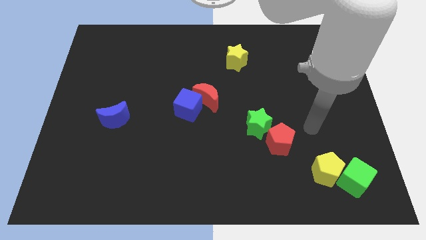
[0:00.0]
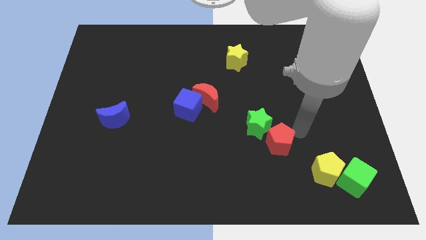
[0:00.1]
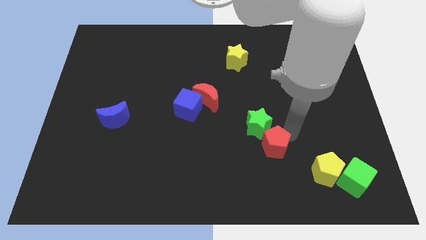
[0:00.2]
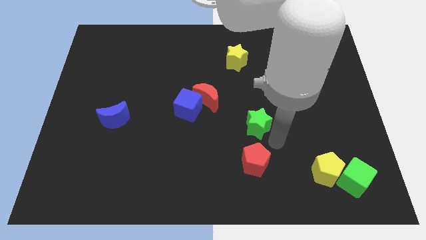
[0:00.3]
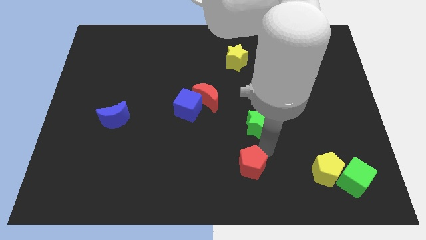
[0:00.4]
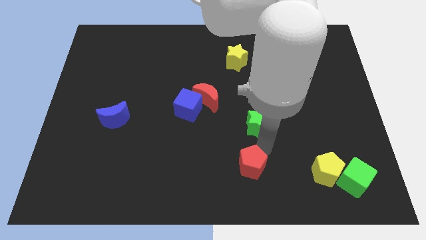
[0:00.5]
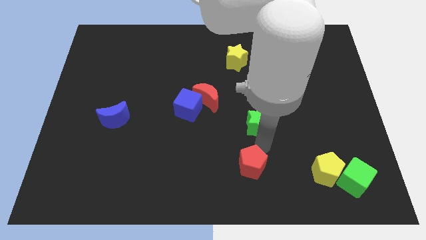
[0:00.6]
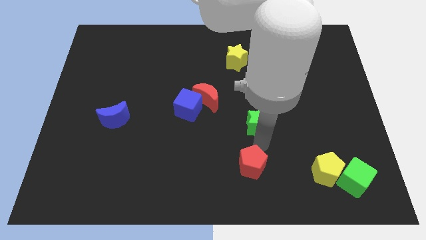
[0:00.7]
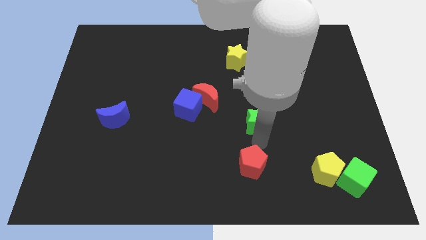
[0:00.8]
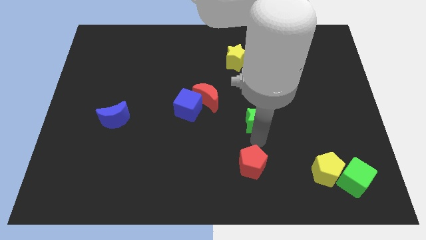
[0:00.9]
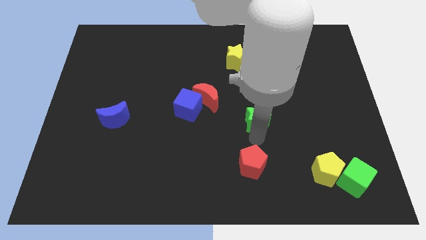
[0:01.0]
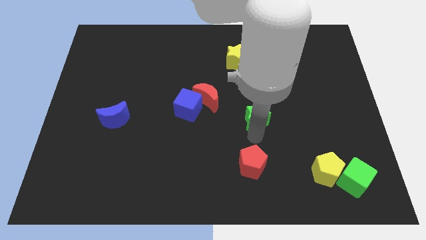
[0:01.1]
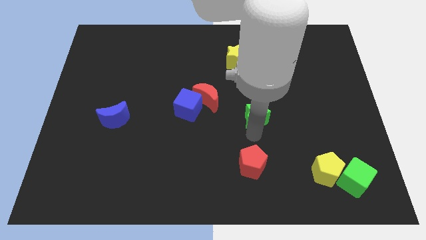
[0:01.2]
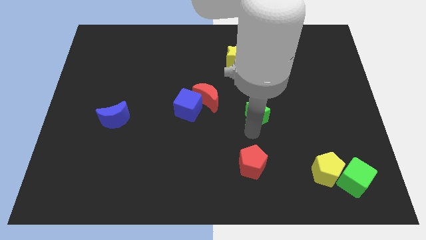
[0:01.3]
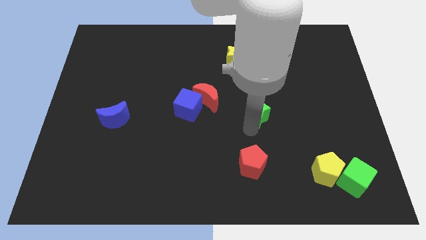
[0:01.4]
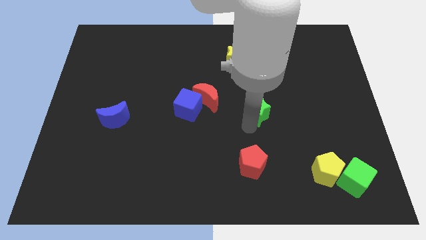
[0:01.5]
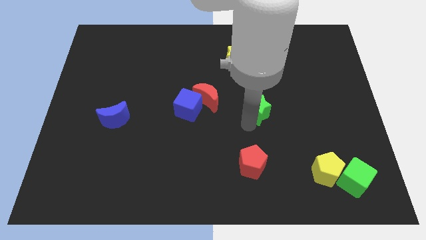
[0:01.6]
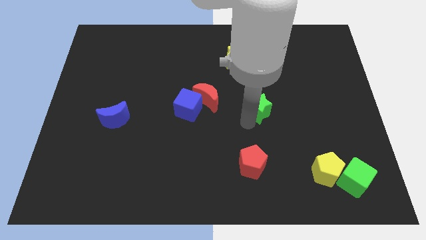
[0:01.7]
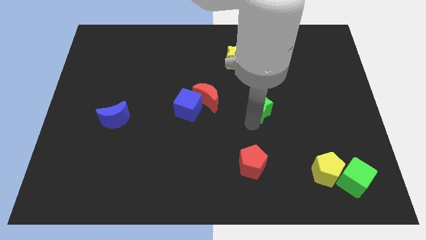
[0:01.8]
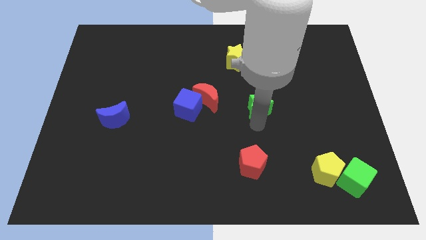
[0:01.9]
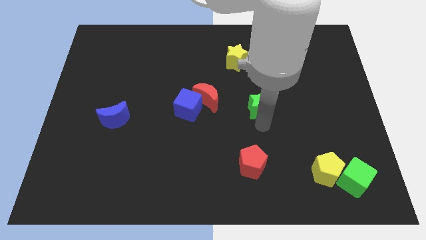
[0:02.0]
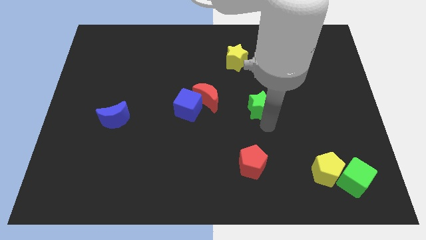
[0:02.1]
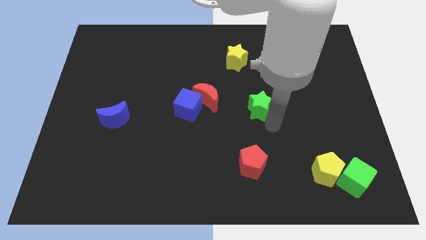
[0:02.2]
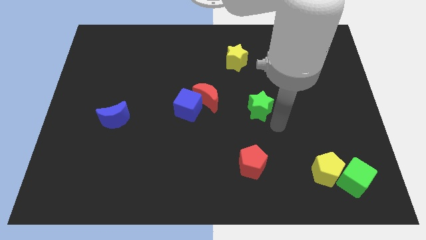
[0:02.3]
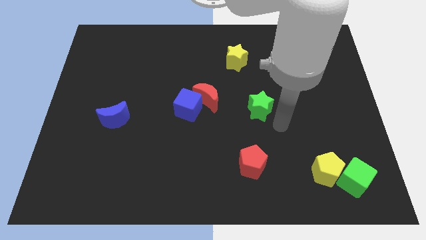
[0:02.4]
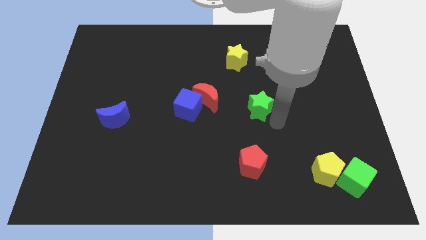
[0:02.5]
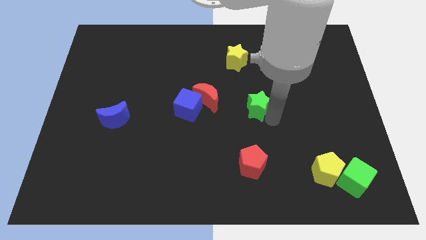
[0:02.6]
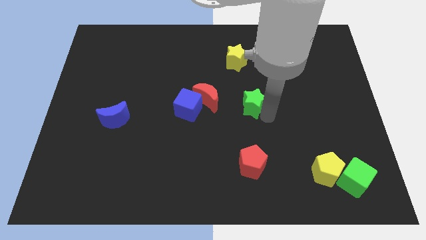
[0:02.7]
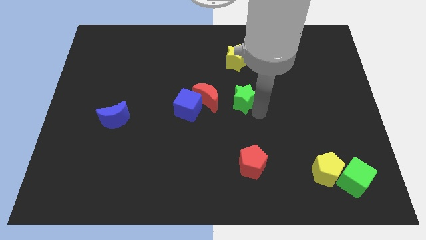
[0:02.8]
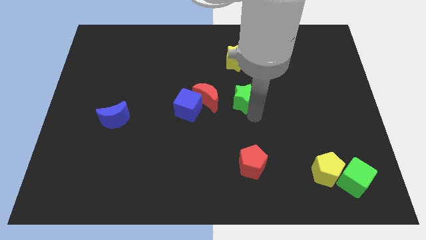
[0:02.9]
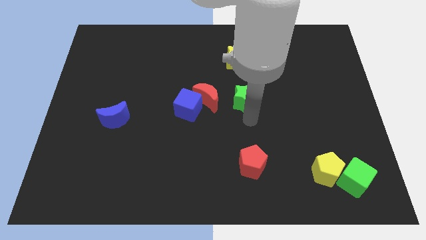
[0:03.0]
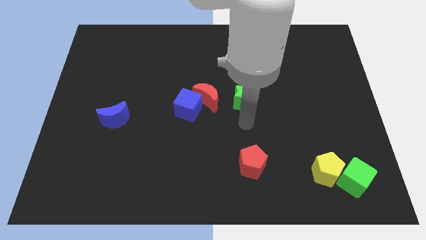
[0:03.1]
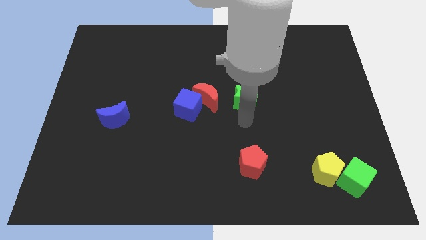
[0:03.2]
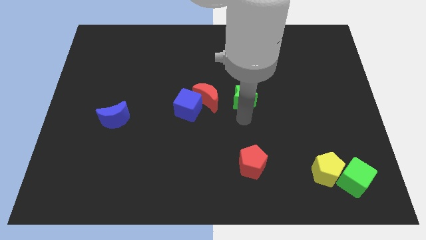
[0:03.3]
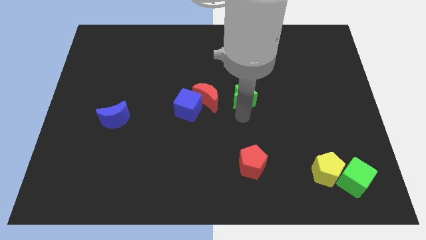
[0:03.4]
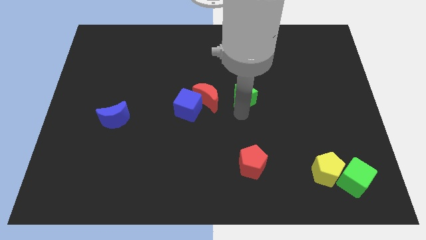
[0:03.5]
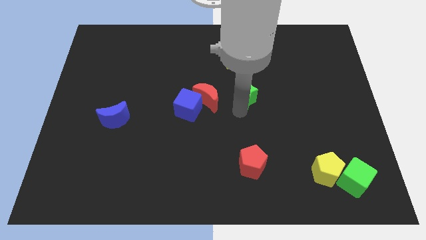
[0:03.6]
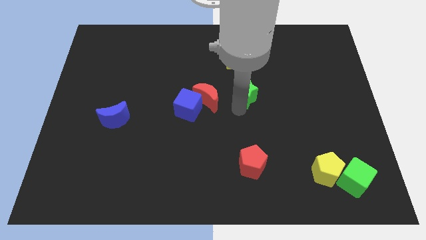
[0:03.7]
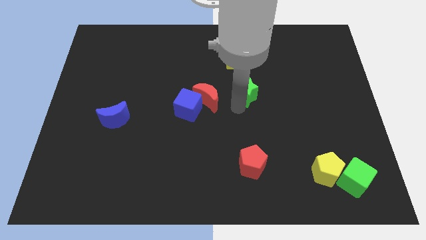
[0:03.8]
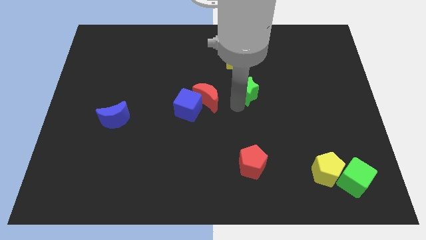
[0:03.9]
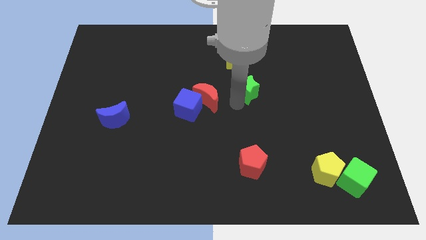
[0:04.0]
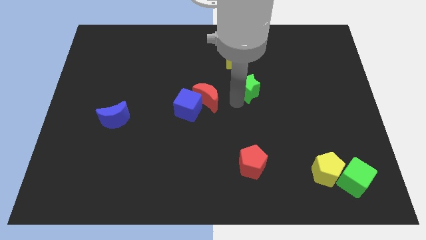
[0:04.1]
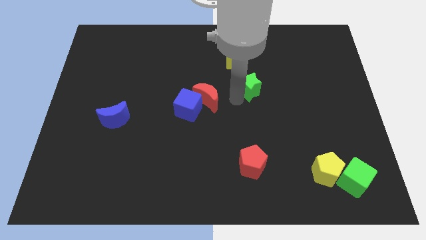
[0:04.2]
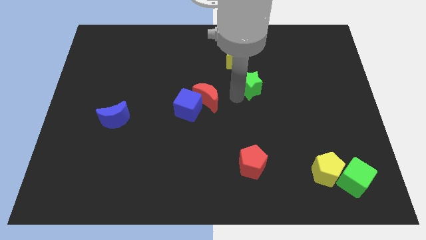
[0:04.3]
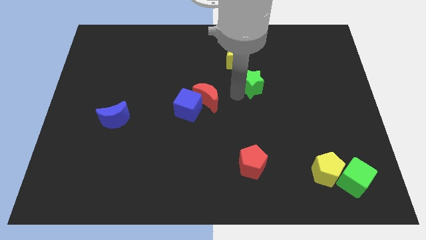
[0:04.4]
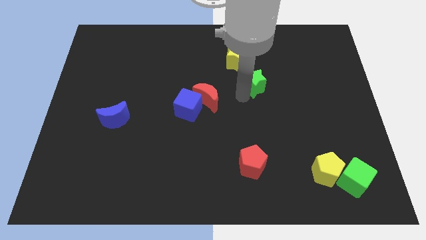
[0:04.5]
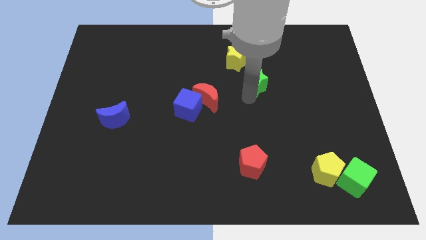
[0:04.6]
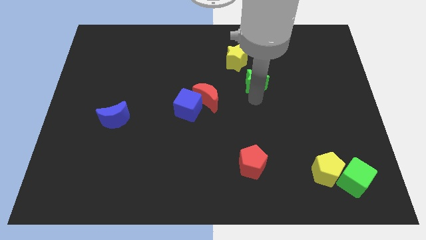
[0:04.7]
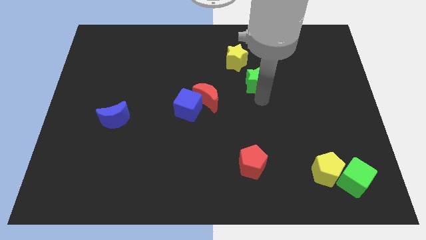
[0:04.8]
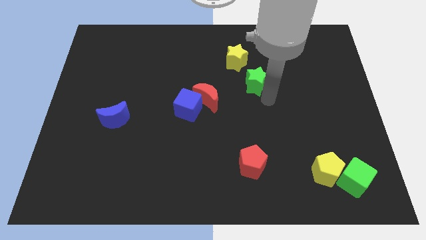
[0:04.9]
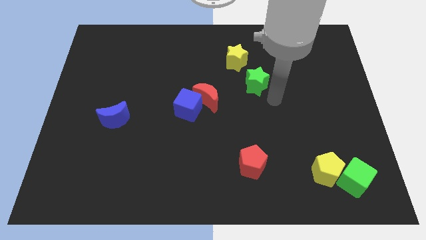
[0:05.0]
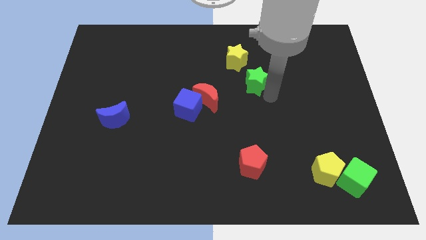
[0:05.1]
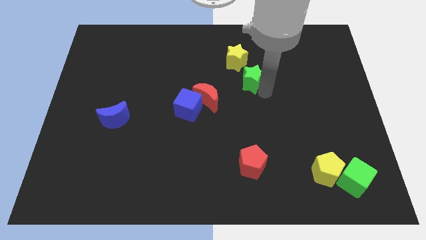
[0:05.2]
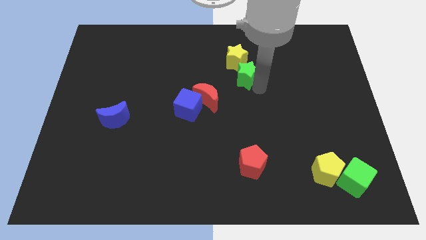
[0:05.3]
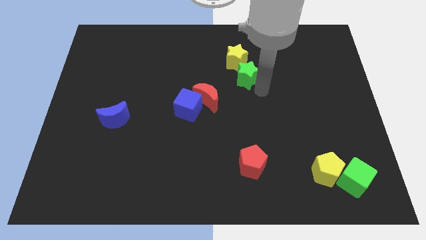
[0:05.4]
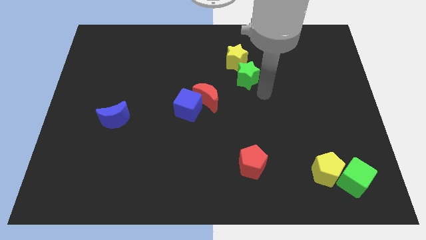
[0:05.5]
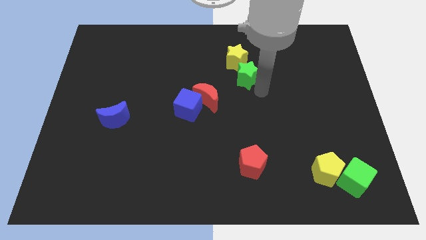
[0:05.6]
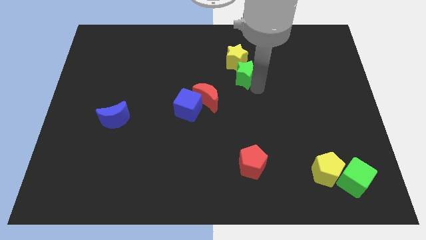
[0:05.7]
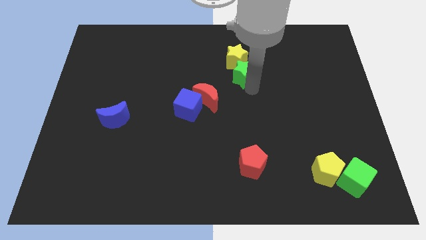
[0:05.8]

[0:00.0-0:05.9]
move the green star close to the yellow star

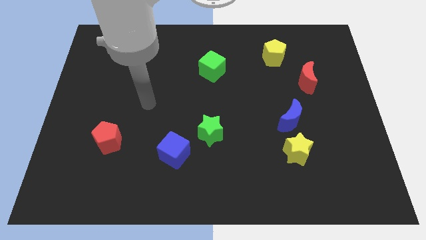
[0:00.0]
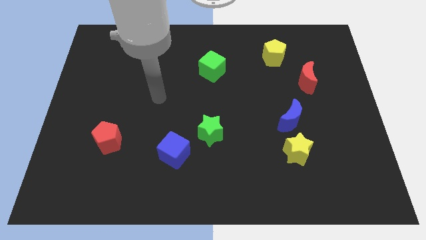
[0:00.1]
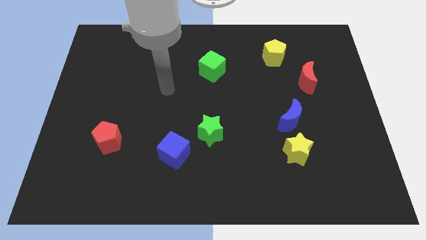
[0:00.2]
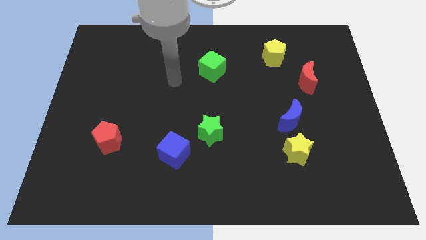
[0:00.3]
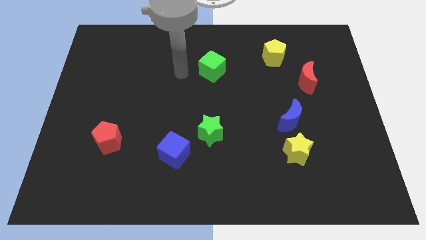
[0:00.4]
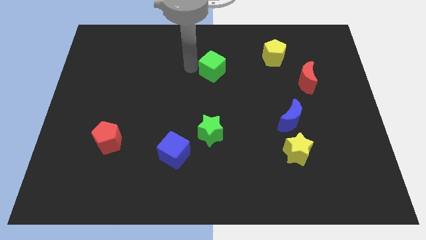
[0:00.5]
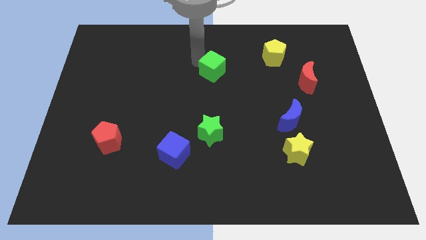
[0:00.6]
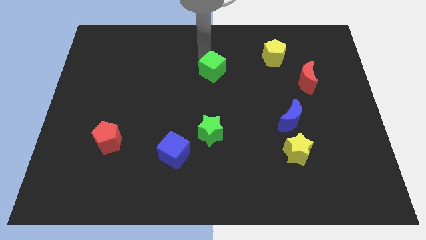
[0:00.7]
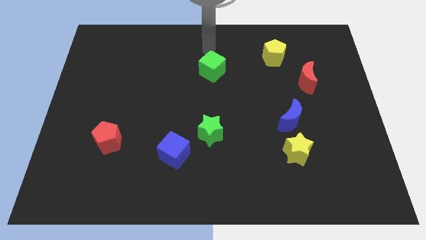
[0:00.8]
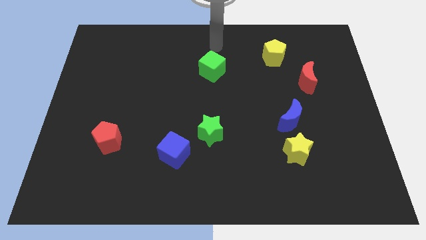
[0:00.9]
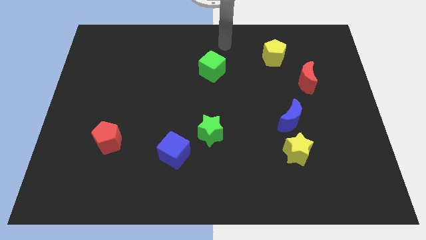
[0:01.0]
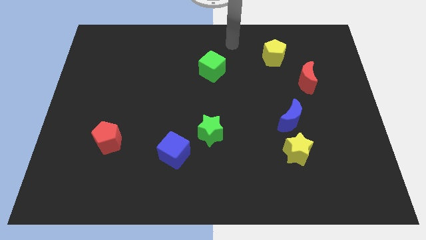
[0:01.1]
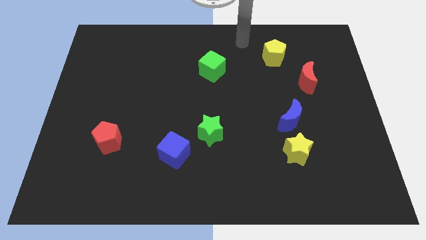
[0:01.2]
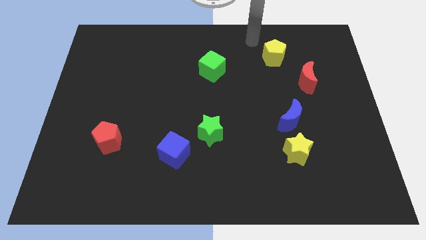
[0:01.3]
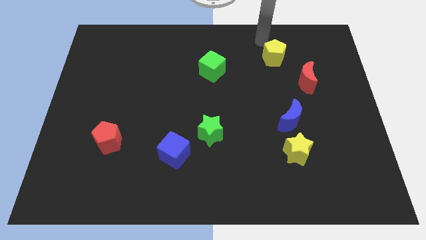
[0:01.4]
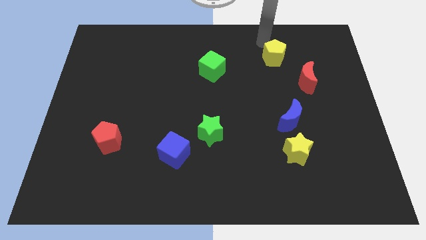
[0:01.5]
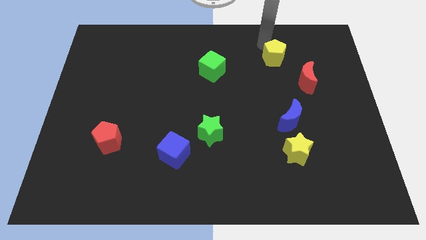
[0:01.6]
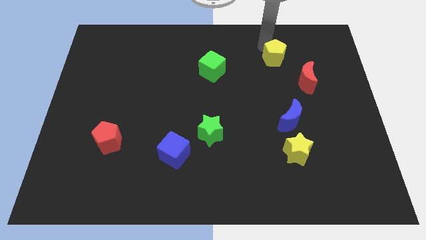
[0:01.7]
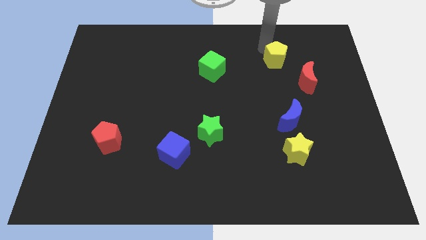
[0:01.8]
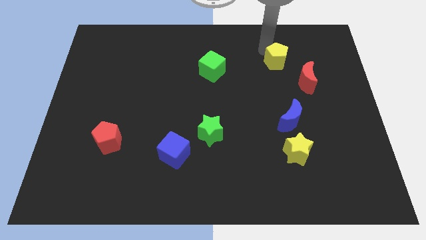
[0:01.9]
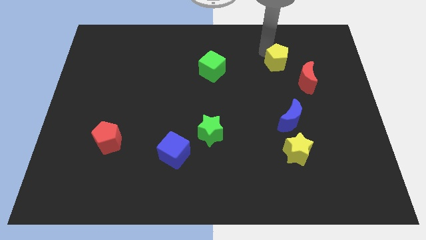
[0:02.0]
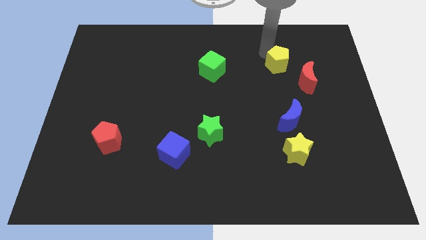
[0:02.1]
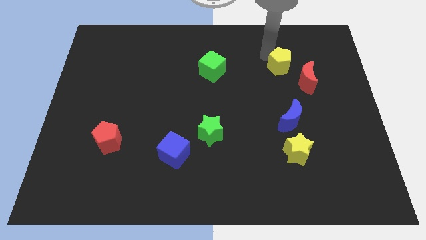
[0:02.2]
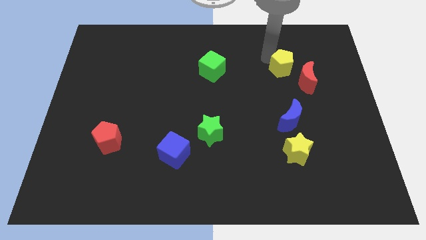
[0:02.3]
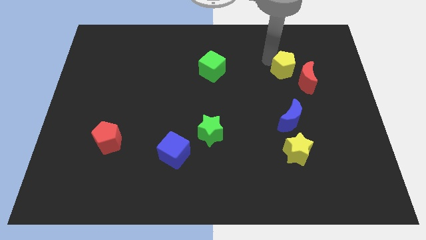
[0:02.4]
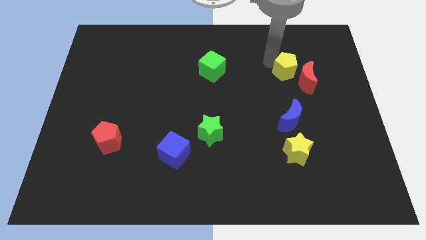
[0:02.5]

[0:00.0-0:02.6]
slide the yellow pentagon towards the red moon
